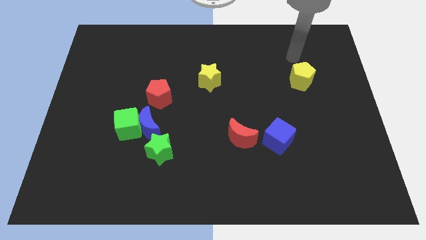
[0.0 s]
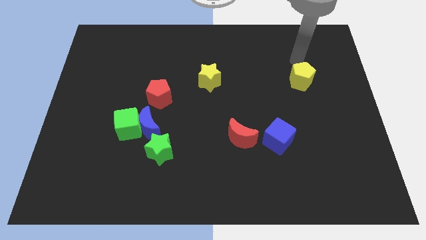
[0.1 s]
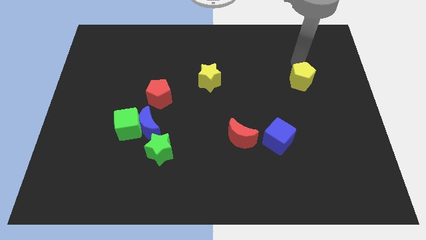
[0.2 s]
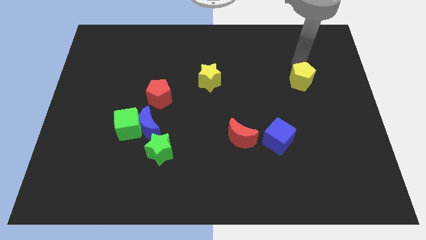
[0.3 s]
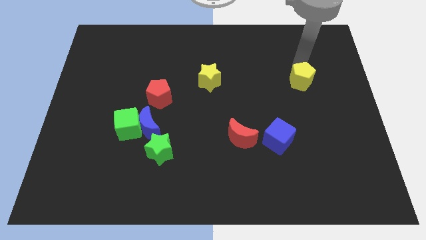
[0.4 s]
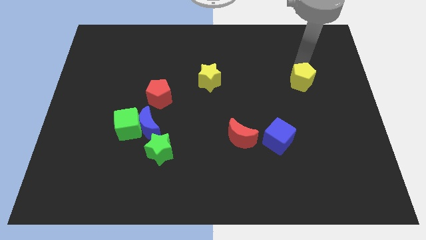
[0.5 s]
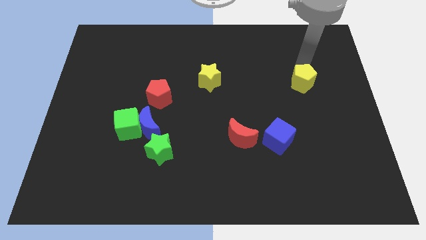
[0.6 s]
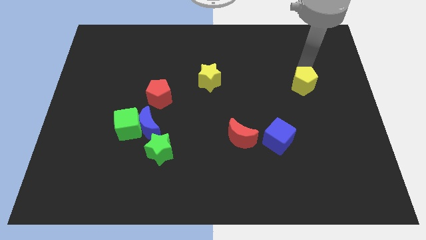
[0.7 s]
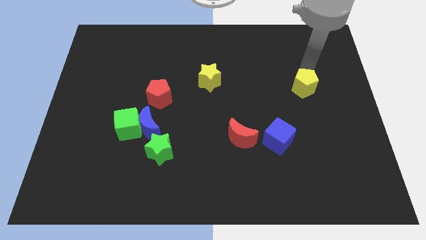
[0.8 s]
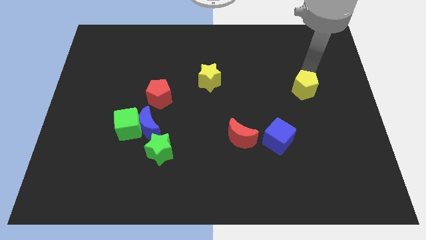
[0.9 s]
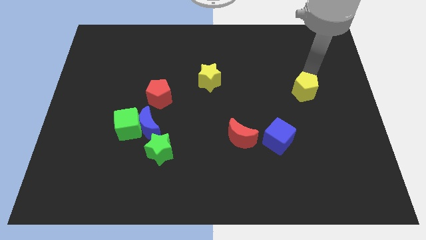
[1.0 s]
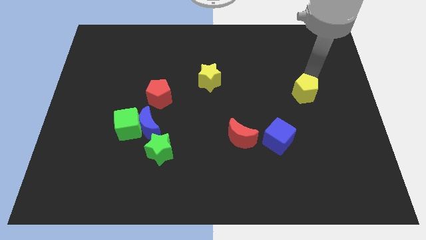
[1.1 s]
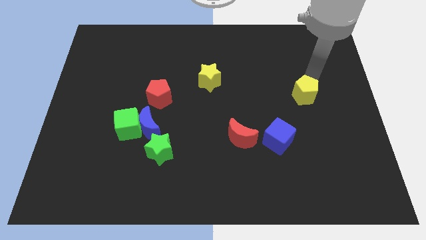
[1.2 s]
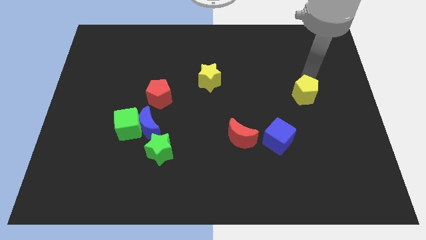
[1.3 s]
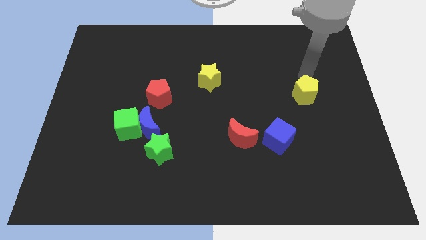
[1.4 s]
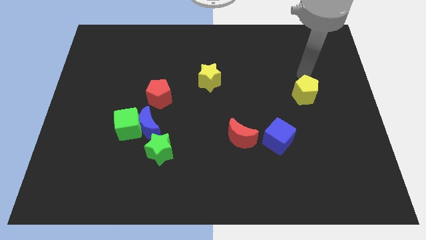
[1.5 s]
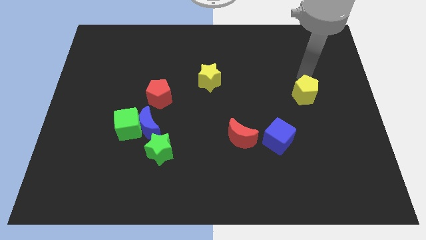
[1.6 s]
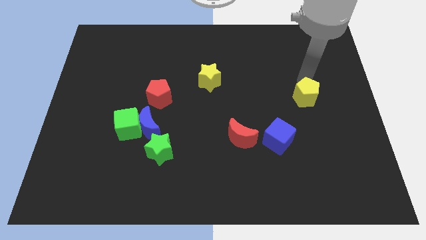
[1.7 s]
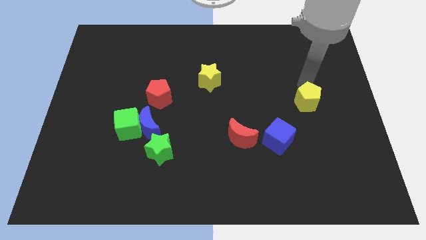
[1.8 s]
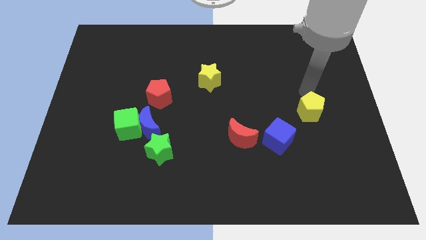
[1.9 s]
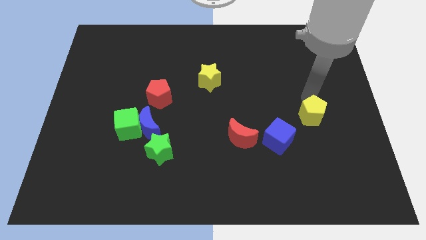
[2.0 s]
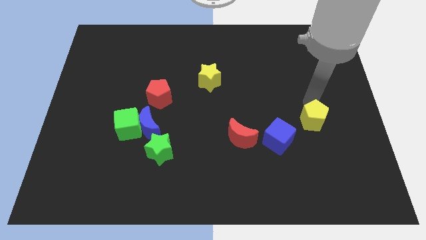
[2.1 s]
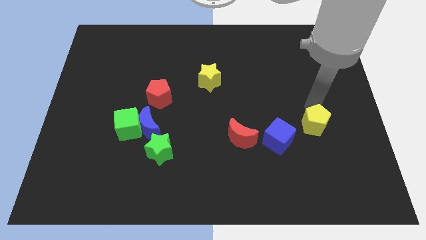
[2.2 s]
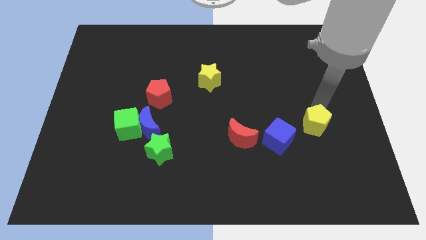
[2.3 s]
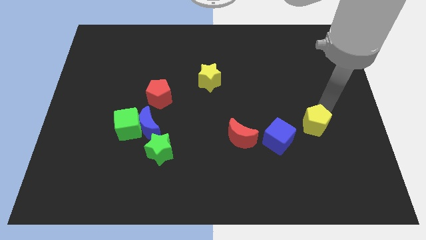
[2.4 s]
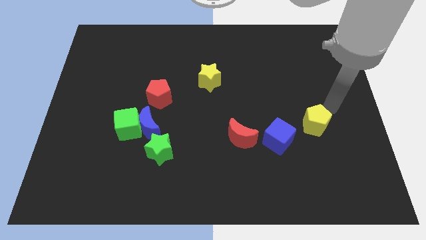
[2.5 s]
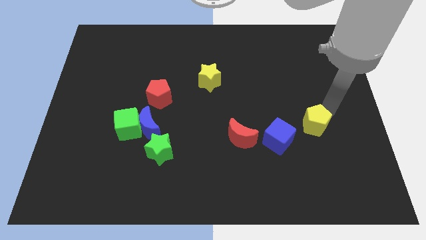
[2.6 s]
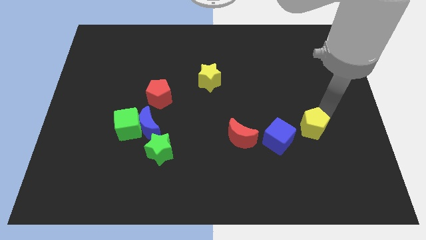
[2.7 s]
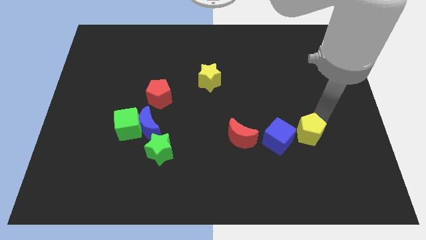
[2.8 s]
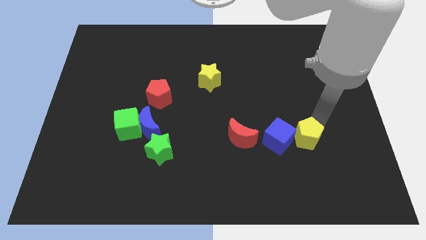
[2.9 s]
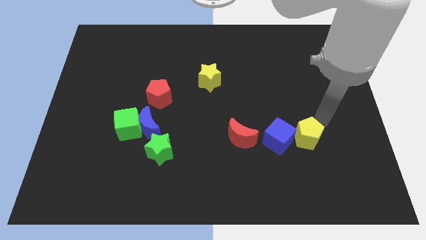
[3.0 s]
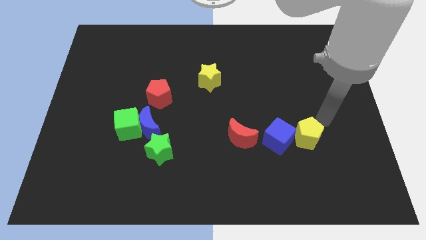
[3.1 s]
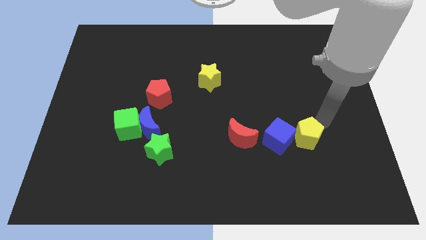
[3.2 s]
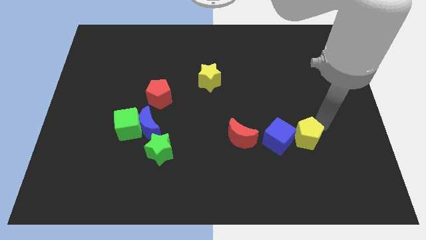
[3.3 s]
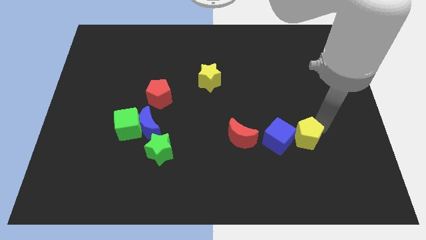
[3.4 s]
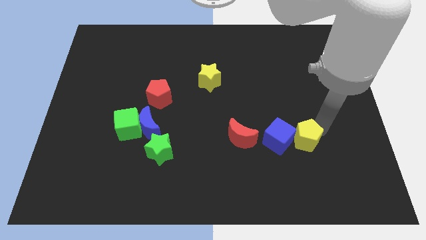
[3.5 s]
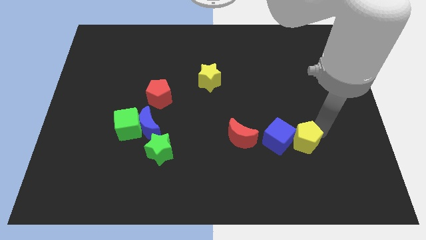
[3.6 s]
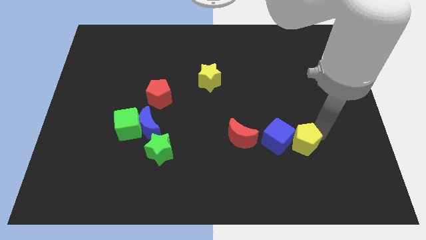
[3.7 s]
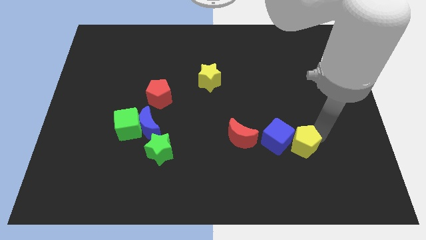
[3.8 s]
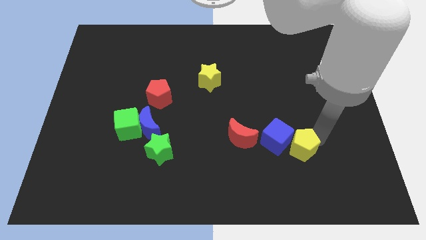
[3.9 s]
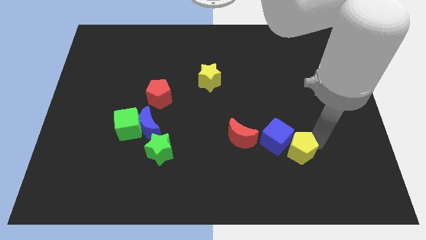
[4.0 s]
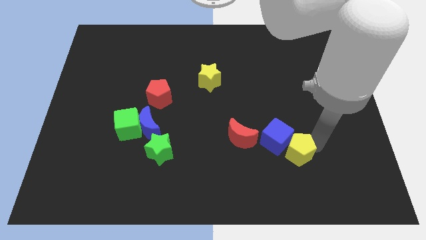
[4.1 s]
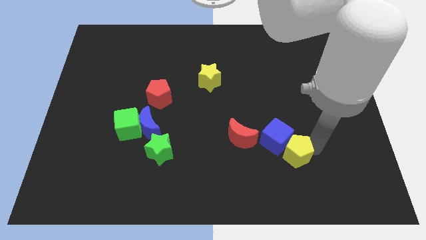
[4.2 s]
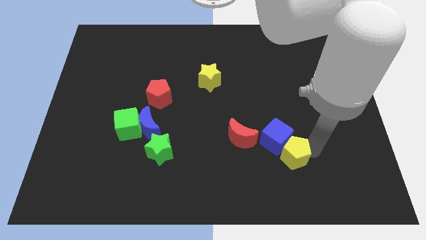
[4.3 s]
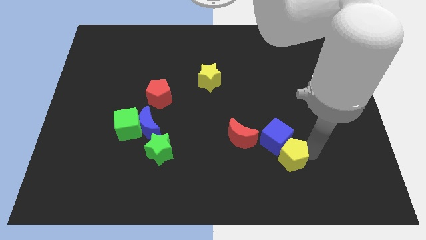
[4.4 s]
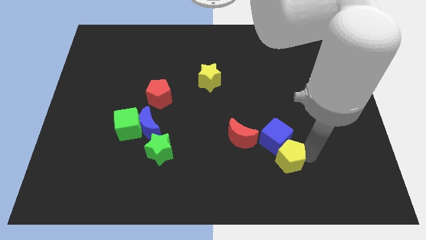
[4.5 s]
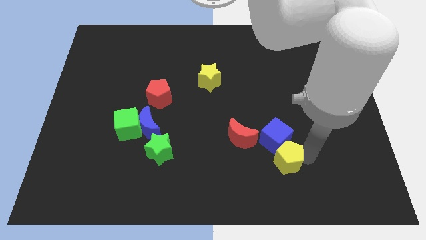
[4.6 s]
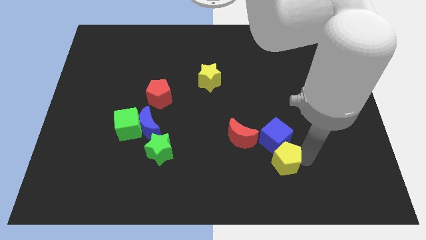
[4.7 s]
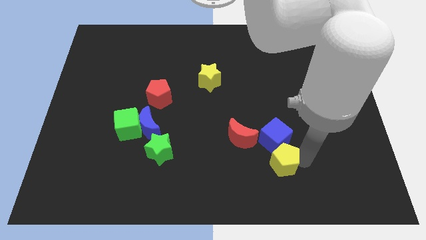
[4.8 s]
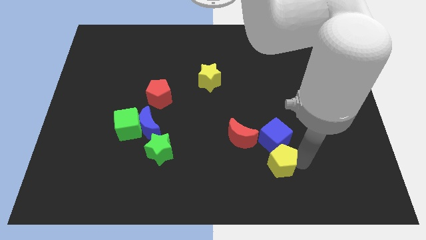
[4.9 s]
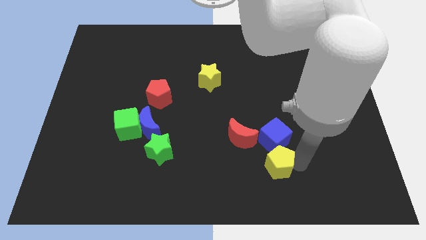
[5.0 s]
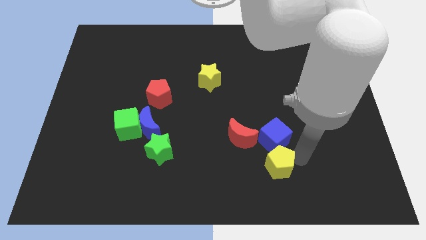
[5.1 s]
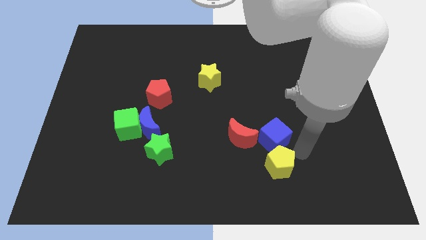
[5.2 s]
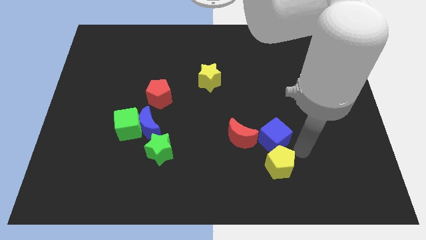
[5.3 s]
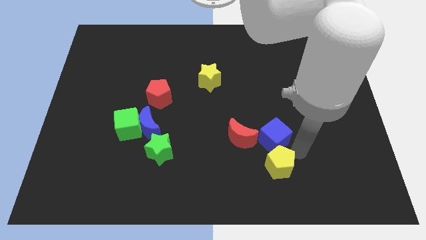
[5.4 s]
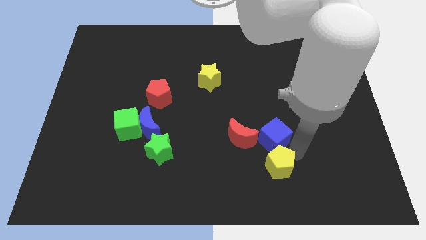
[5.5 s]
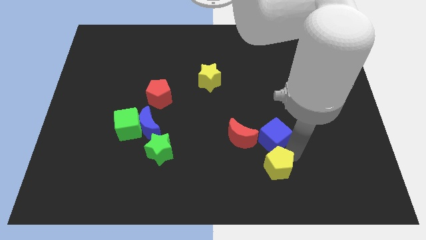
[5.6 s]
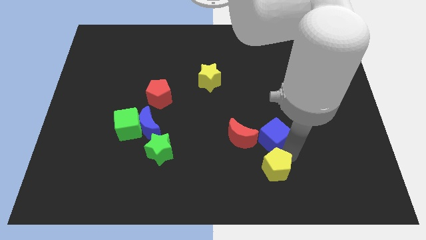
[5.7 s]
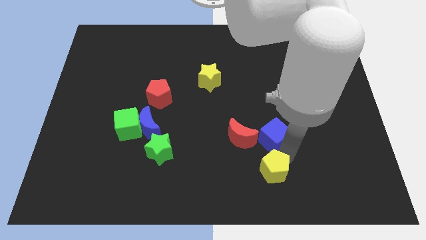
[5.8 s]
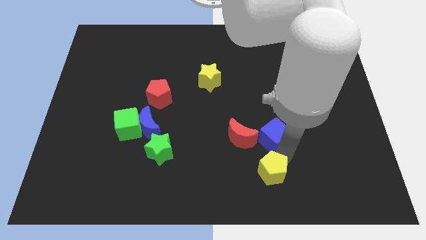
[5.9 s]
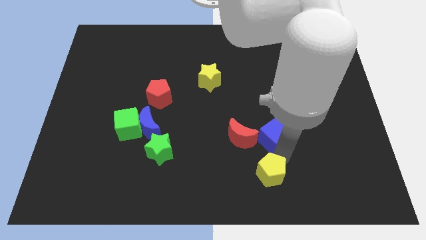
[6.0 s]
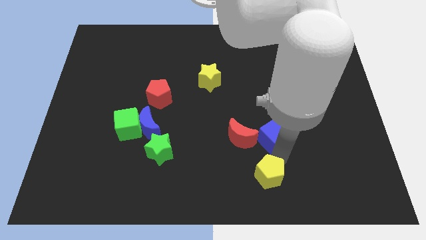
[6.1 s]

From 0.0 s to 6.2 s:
move the yellow pentagon to the bottom
